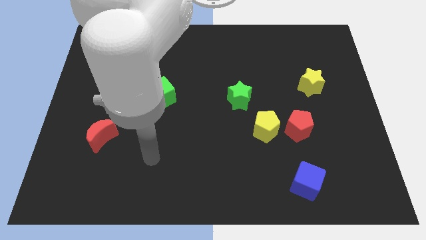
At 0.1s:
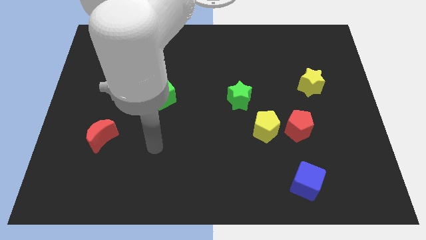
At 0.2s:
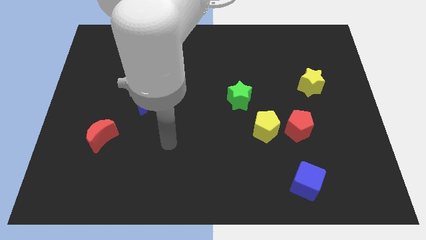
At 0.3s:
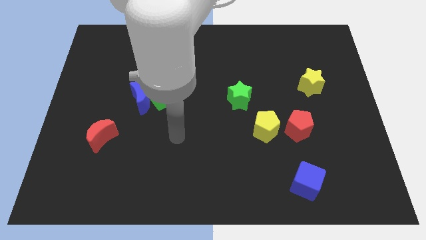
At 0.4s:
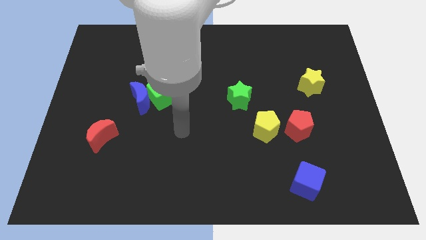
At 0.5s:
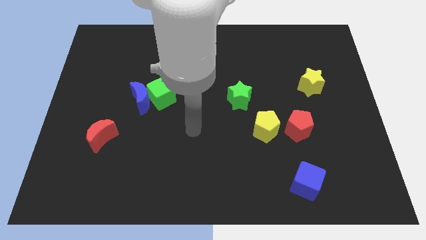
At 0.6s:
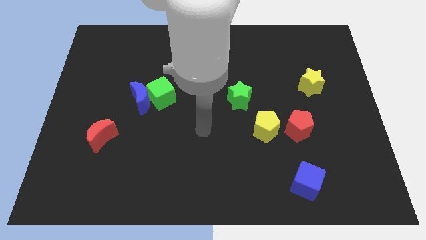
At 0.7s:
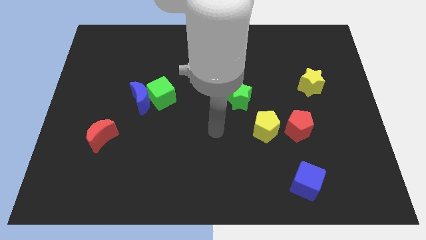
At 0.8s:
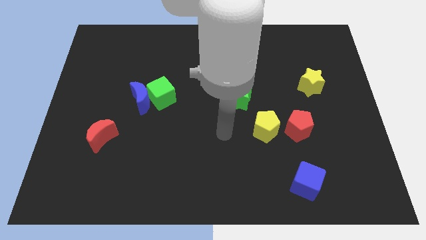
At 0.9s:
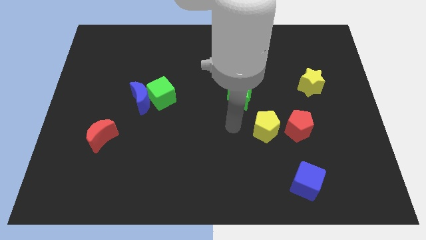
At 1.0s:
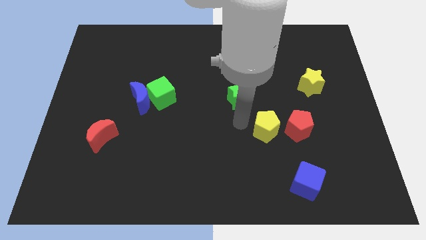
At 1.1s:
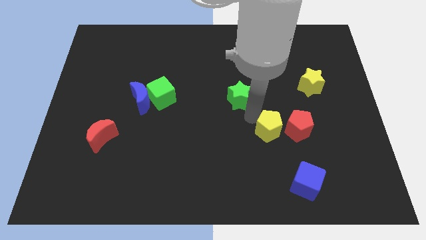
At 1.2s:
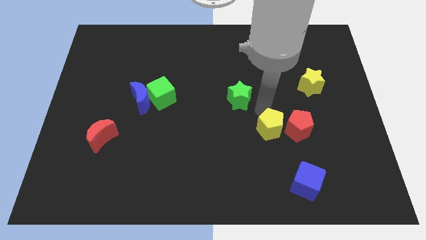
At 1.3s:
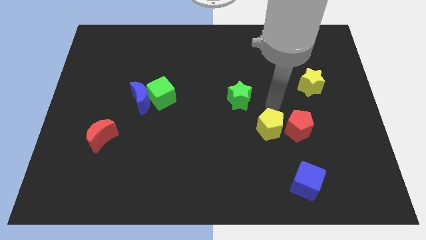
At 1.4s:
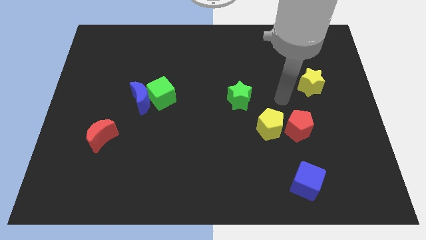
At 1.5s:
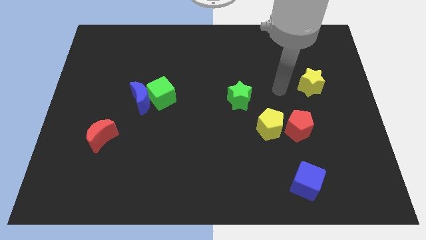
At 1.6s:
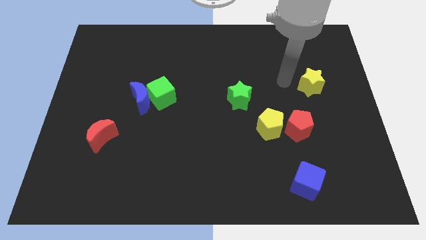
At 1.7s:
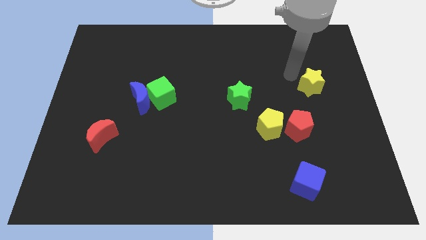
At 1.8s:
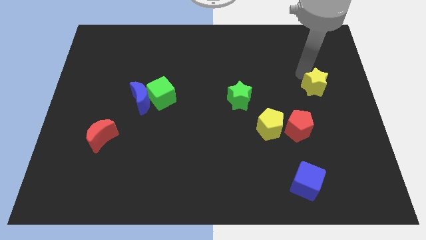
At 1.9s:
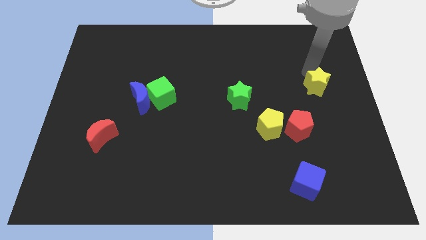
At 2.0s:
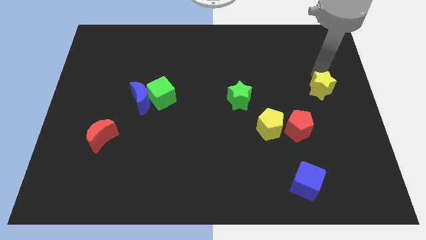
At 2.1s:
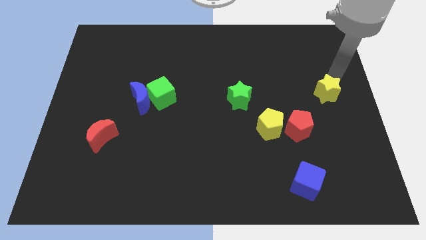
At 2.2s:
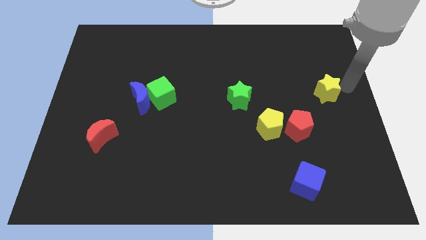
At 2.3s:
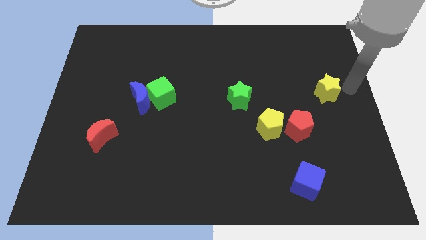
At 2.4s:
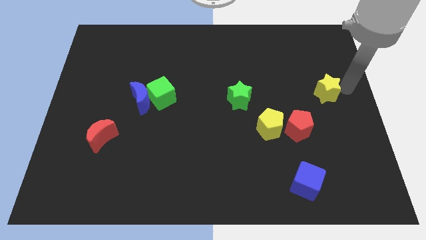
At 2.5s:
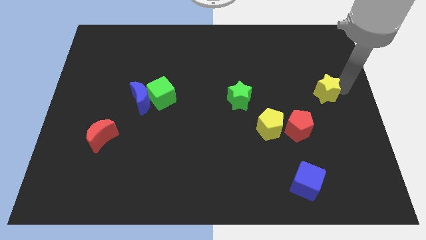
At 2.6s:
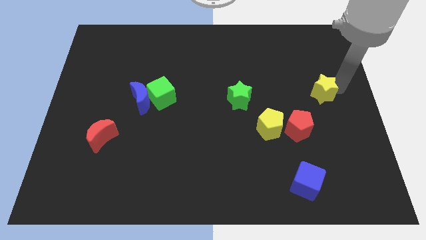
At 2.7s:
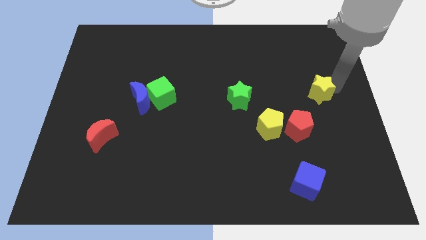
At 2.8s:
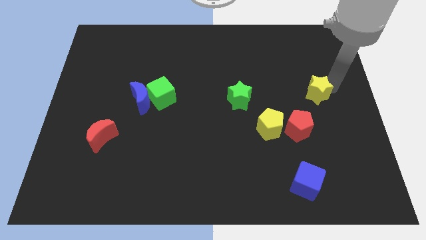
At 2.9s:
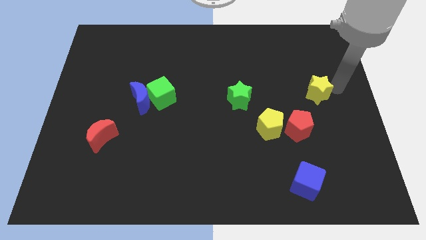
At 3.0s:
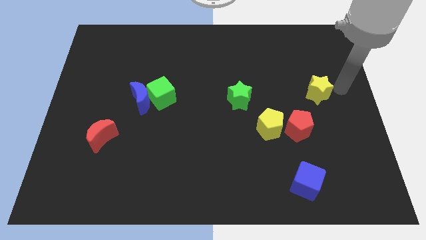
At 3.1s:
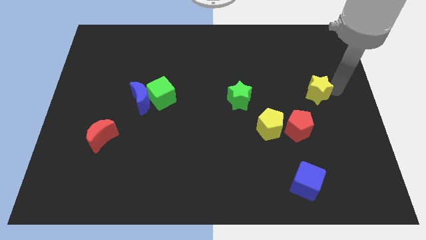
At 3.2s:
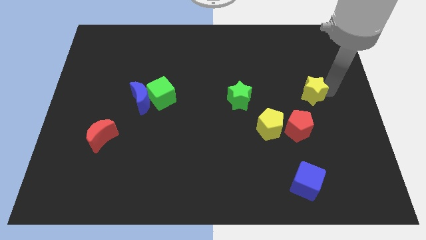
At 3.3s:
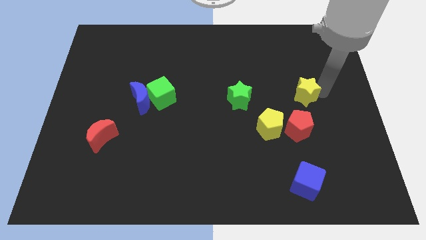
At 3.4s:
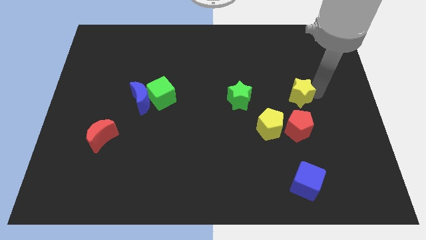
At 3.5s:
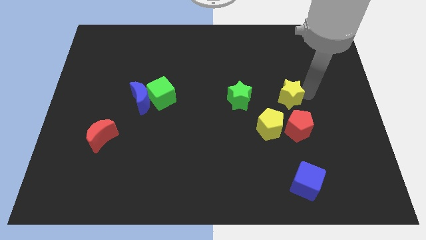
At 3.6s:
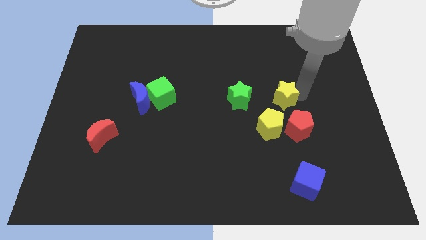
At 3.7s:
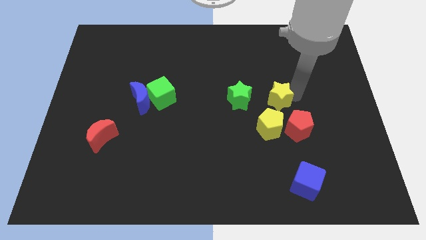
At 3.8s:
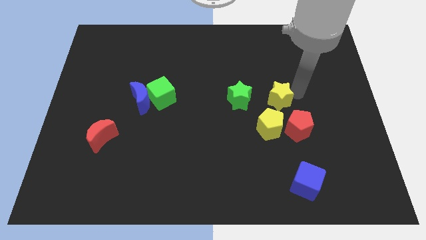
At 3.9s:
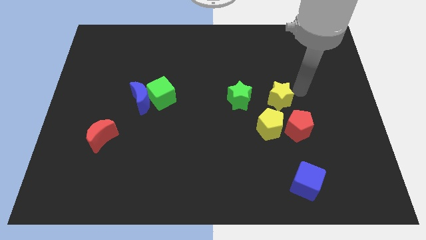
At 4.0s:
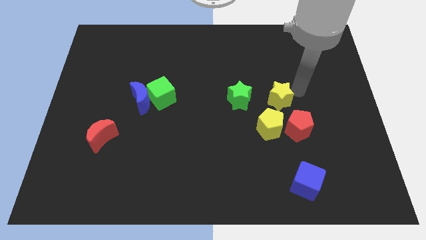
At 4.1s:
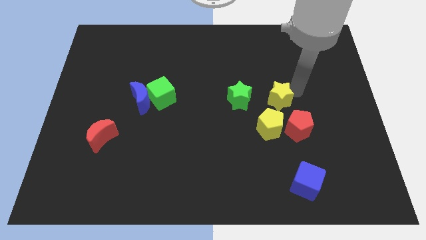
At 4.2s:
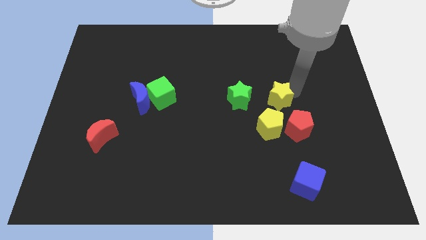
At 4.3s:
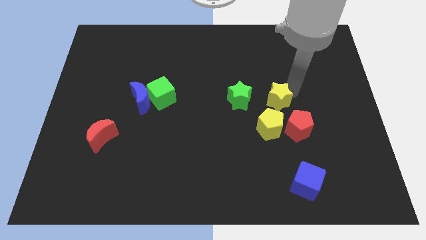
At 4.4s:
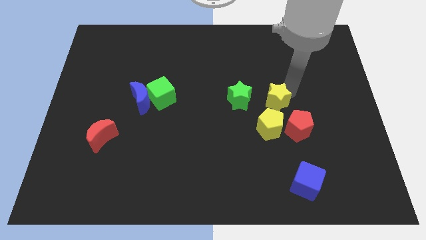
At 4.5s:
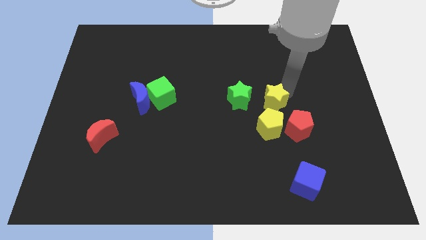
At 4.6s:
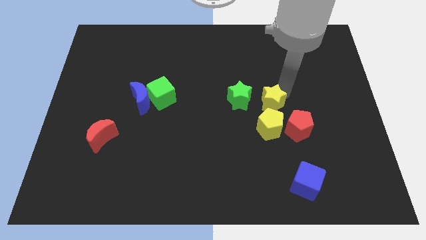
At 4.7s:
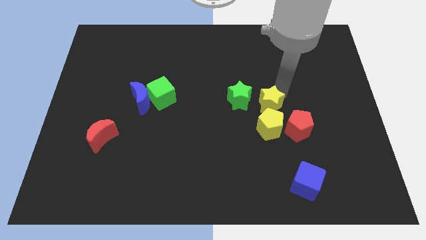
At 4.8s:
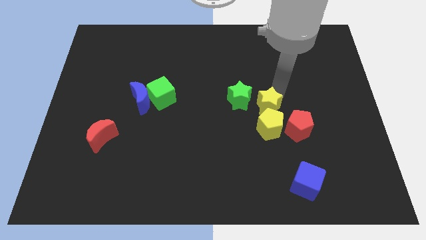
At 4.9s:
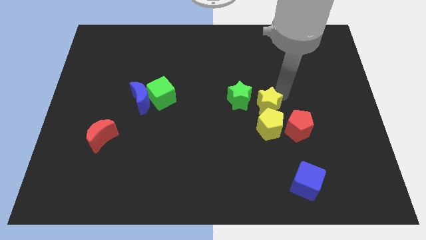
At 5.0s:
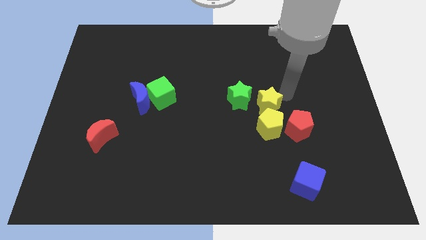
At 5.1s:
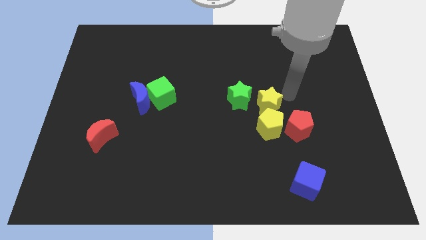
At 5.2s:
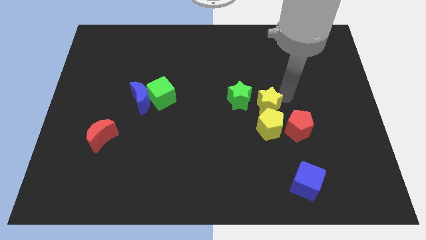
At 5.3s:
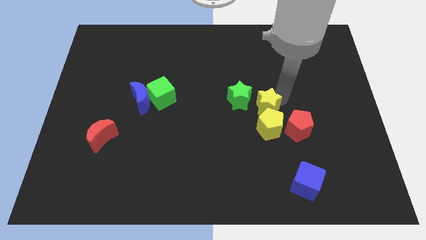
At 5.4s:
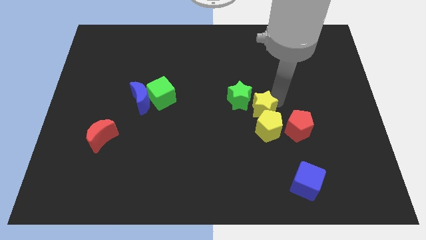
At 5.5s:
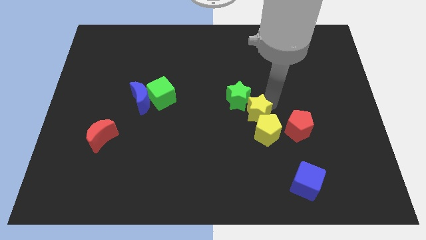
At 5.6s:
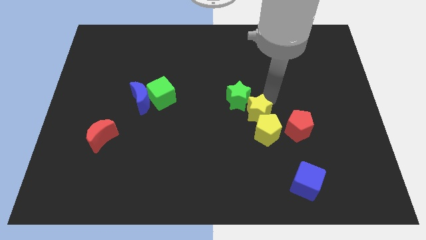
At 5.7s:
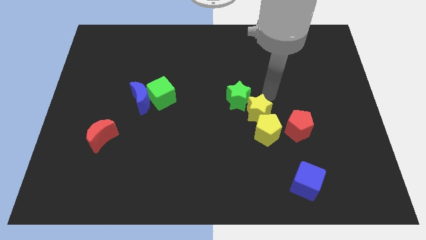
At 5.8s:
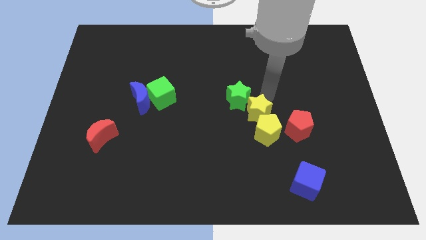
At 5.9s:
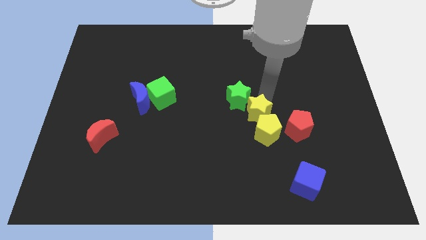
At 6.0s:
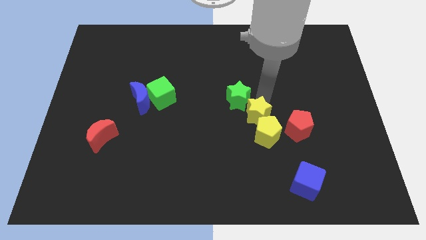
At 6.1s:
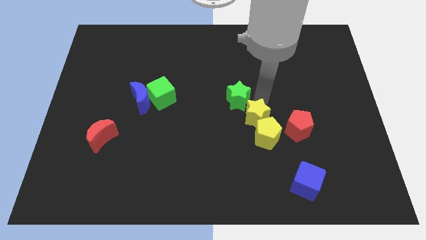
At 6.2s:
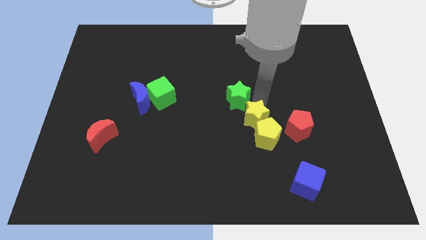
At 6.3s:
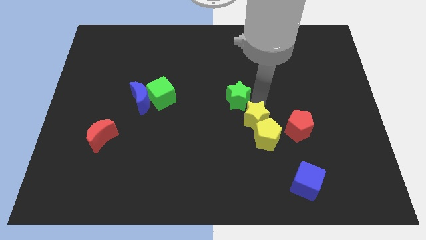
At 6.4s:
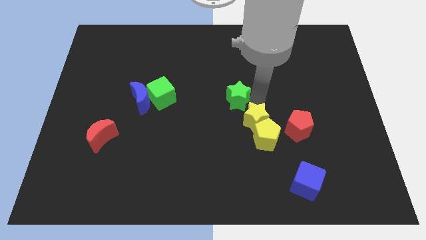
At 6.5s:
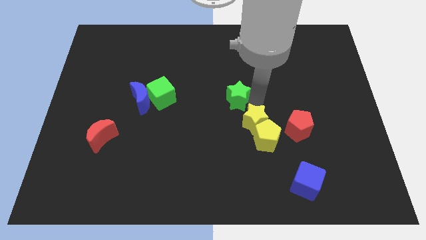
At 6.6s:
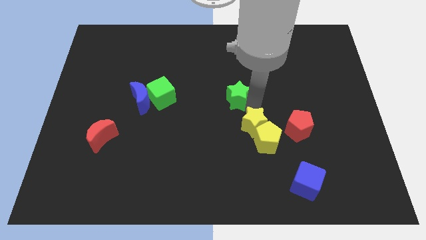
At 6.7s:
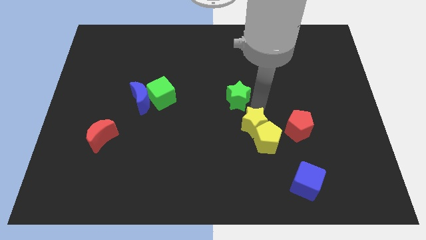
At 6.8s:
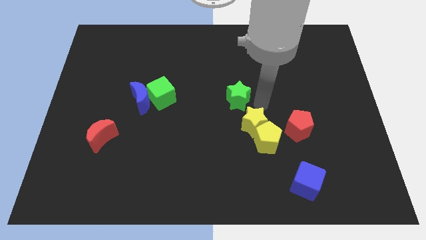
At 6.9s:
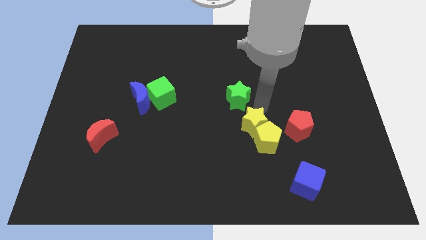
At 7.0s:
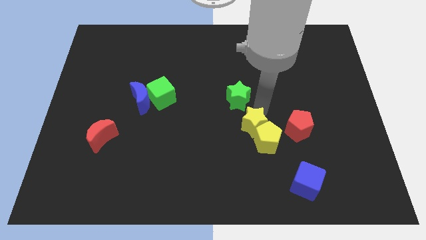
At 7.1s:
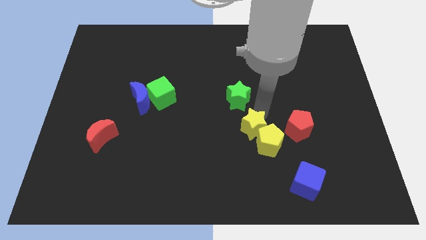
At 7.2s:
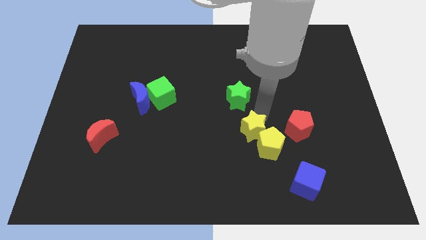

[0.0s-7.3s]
push the yellow star down and to the left diagonally

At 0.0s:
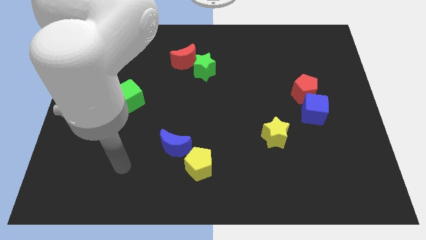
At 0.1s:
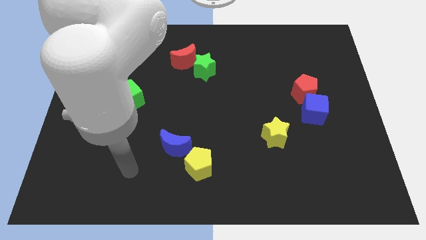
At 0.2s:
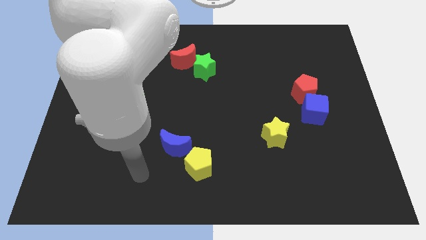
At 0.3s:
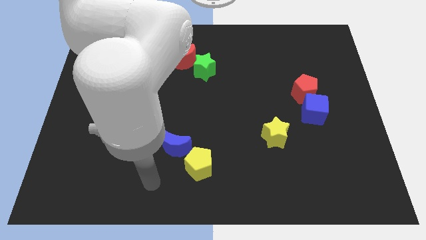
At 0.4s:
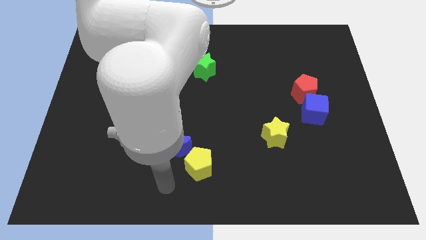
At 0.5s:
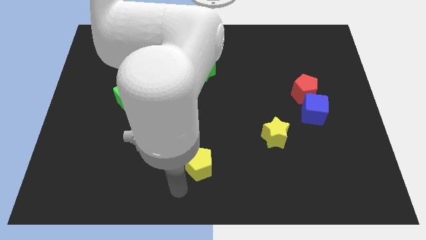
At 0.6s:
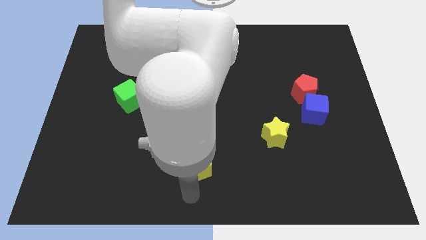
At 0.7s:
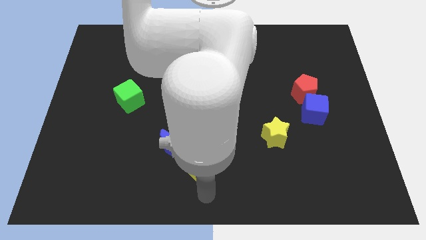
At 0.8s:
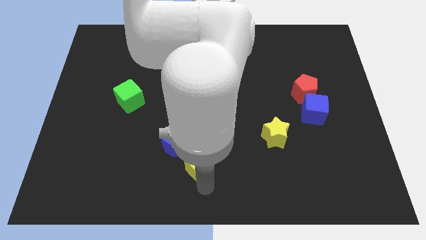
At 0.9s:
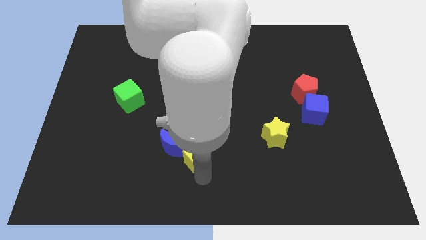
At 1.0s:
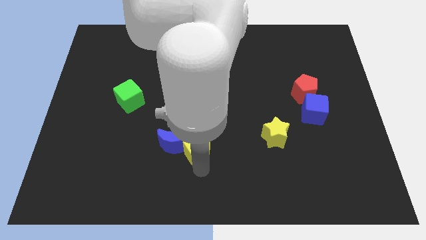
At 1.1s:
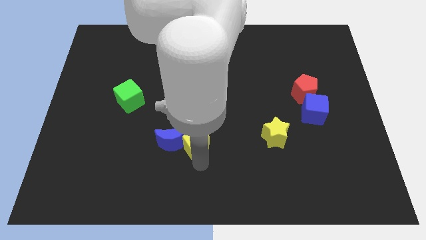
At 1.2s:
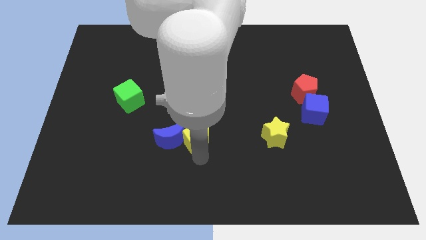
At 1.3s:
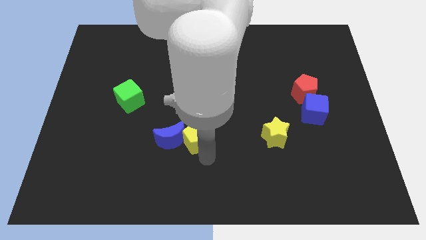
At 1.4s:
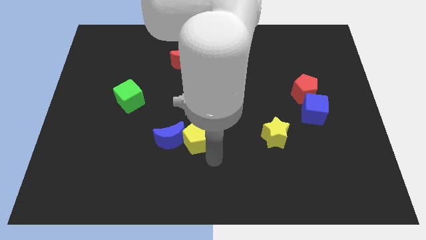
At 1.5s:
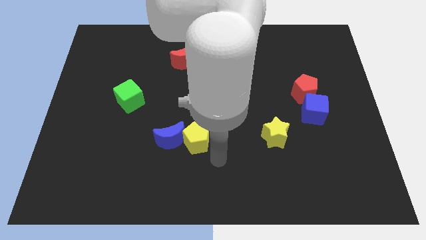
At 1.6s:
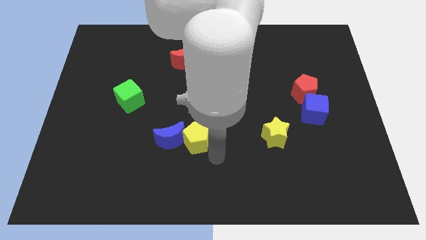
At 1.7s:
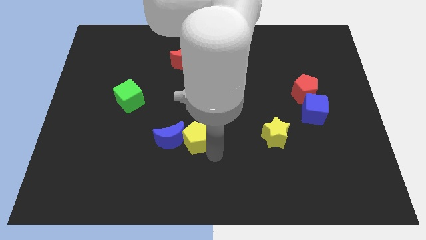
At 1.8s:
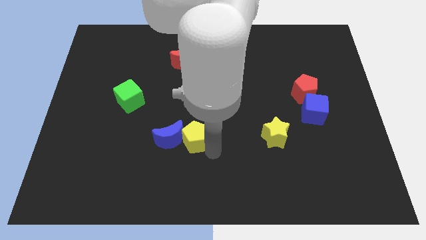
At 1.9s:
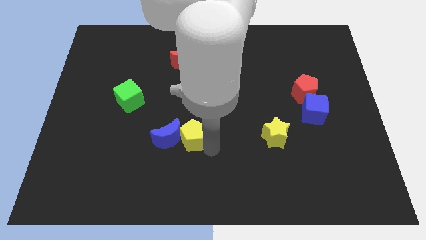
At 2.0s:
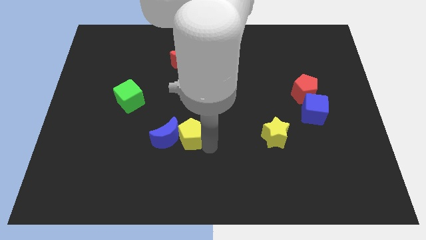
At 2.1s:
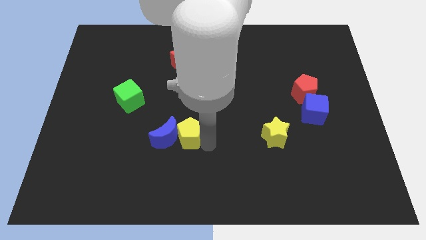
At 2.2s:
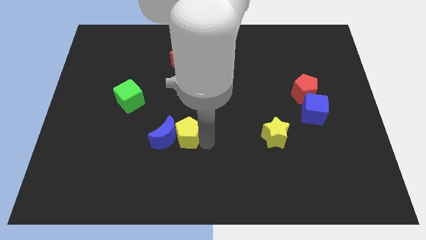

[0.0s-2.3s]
move the yellow pentagon a bit upwards and left
